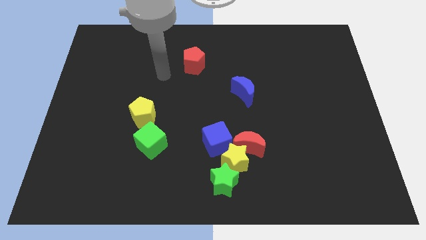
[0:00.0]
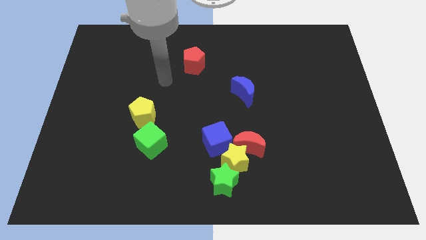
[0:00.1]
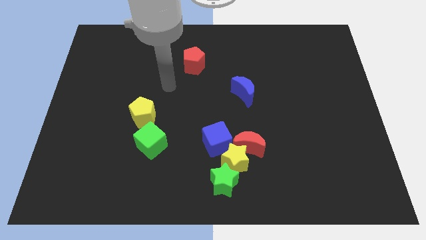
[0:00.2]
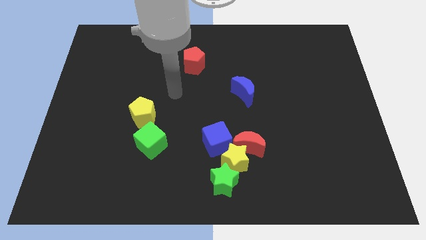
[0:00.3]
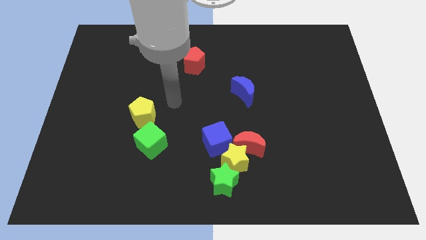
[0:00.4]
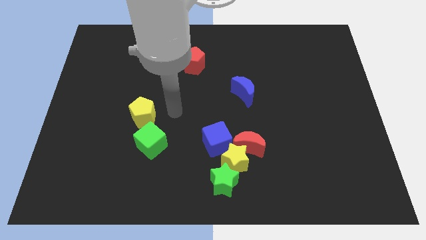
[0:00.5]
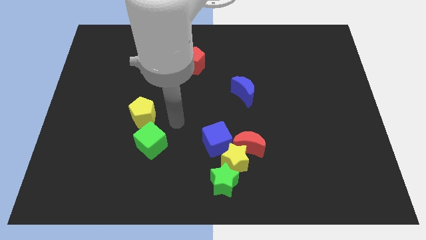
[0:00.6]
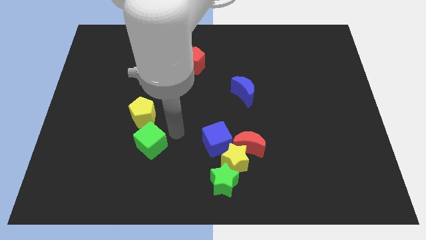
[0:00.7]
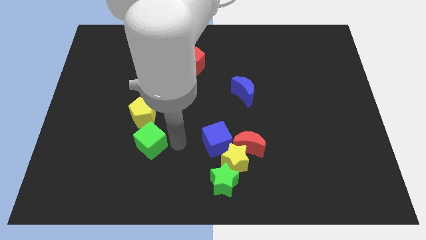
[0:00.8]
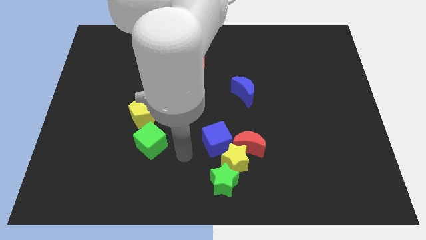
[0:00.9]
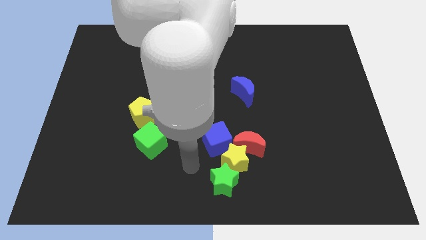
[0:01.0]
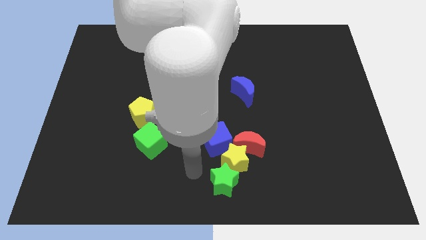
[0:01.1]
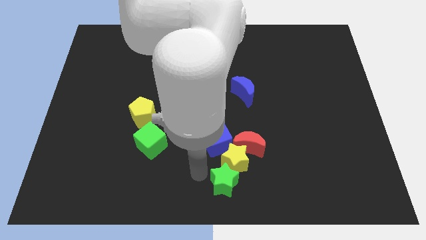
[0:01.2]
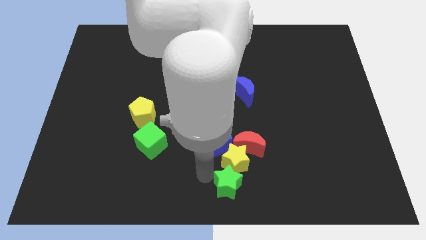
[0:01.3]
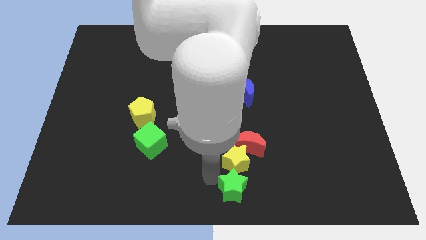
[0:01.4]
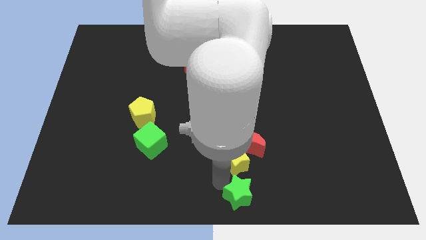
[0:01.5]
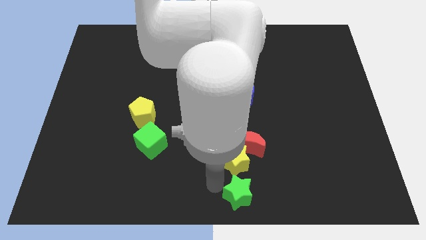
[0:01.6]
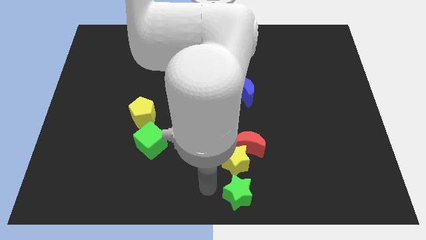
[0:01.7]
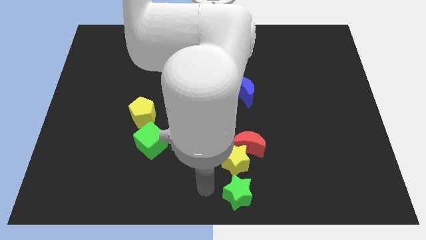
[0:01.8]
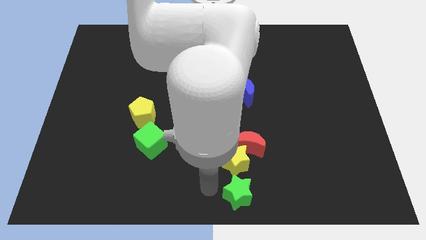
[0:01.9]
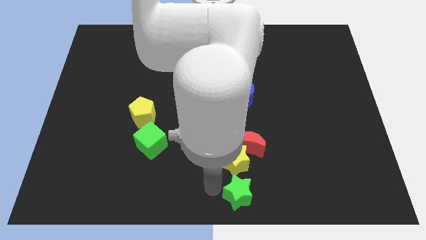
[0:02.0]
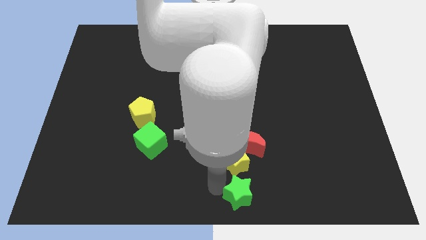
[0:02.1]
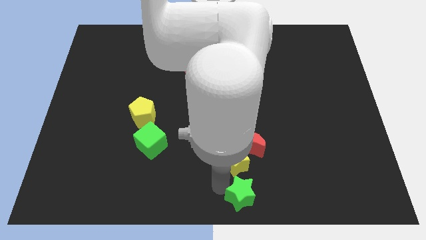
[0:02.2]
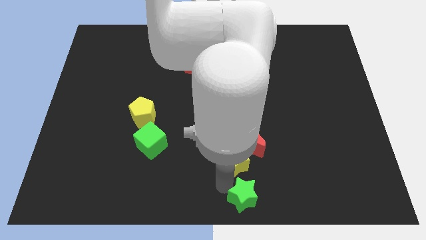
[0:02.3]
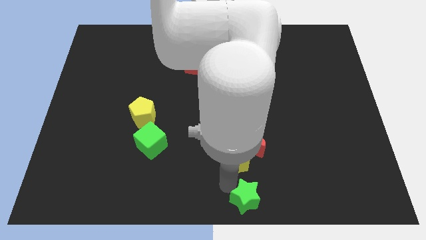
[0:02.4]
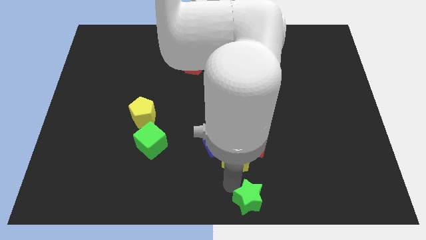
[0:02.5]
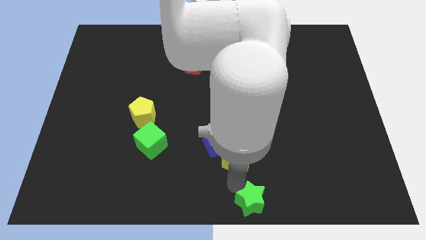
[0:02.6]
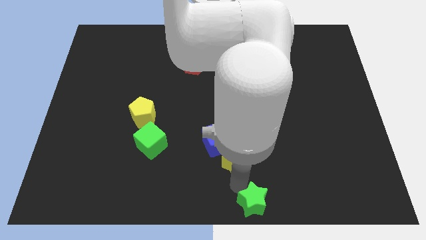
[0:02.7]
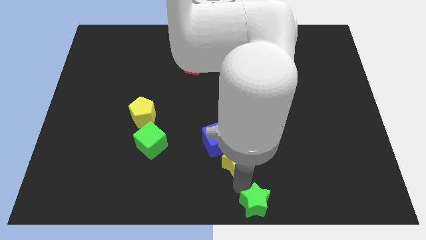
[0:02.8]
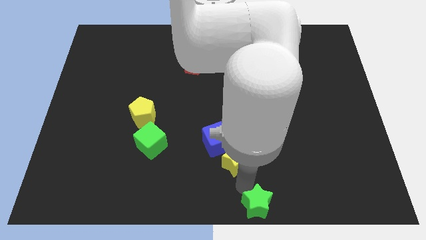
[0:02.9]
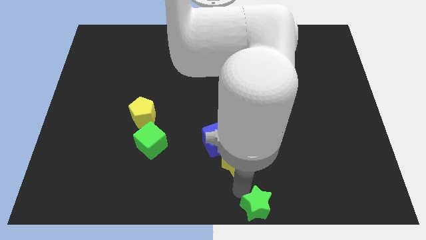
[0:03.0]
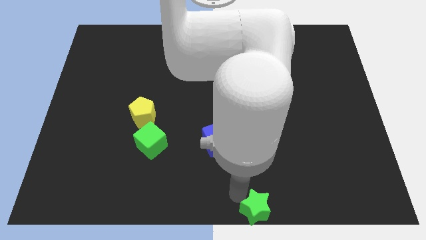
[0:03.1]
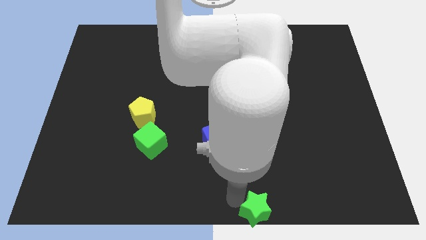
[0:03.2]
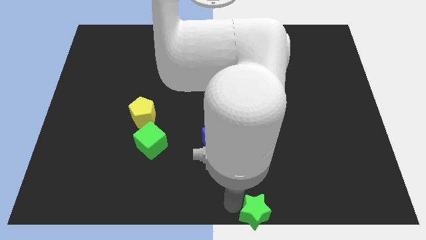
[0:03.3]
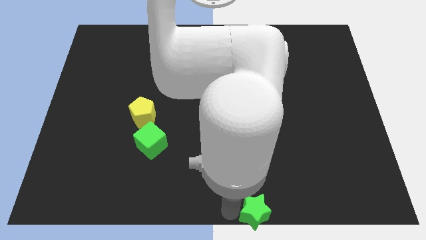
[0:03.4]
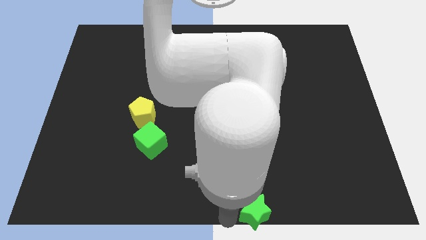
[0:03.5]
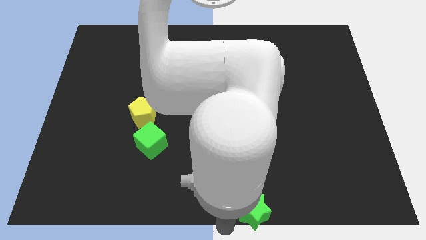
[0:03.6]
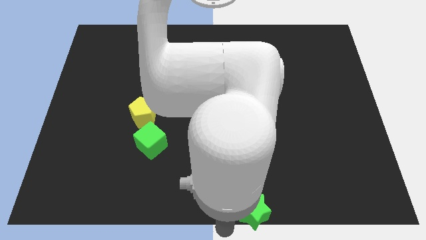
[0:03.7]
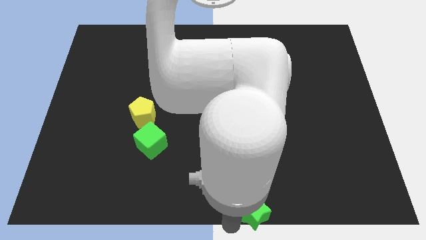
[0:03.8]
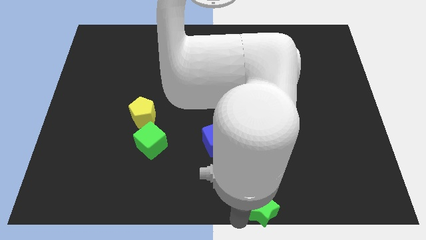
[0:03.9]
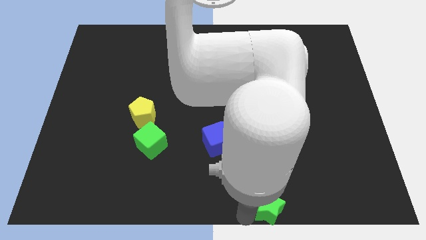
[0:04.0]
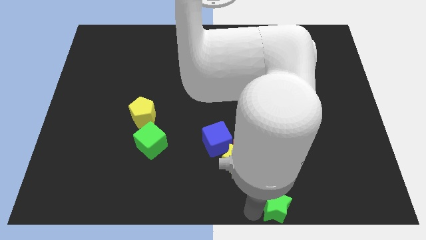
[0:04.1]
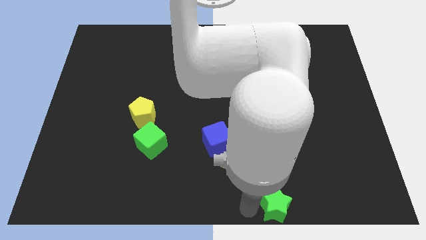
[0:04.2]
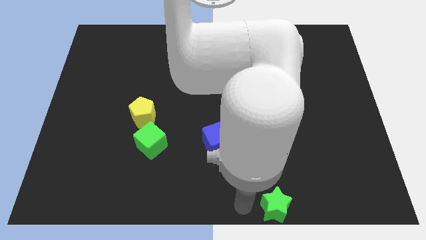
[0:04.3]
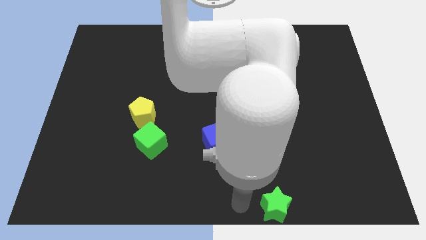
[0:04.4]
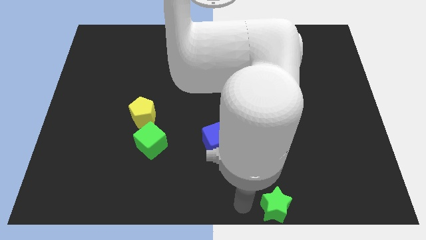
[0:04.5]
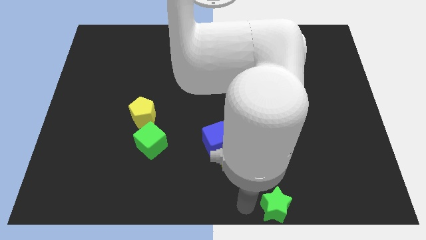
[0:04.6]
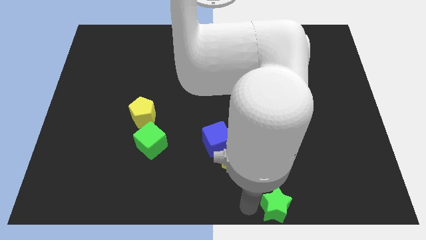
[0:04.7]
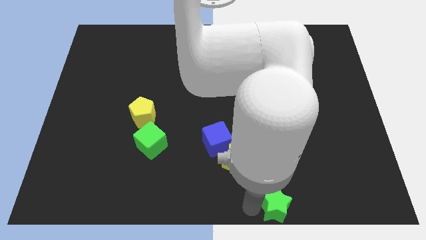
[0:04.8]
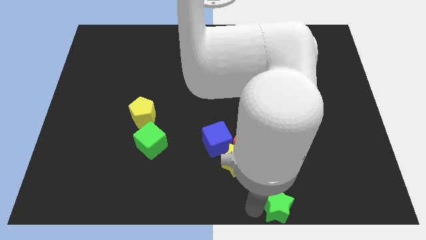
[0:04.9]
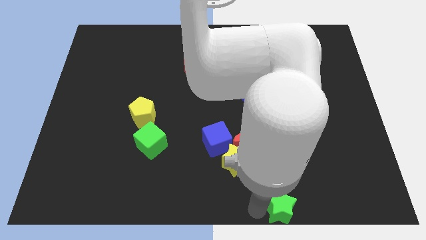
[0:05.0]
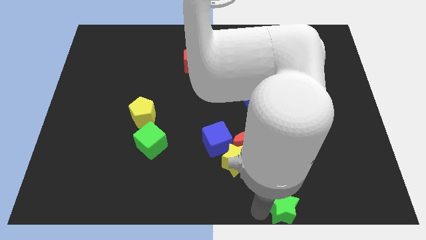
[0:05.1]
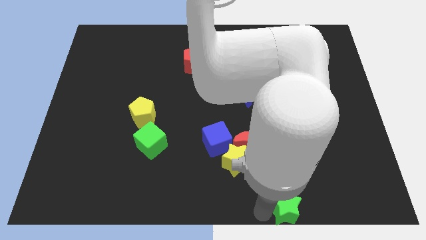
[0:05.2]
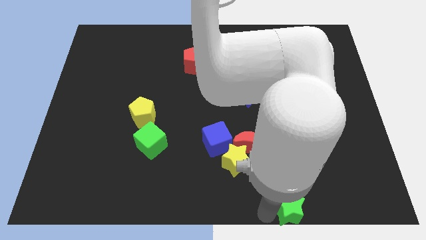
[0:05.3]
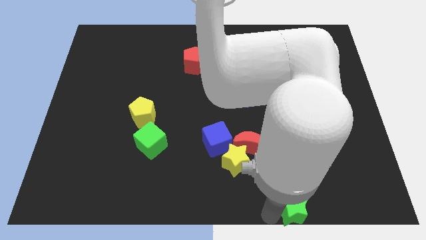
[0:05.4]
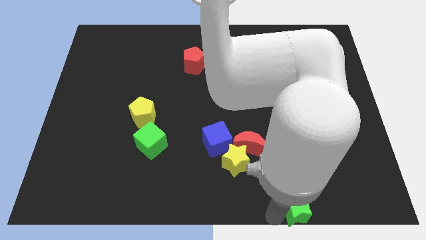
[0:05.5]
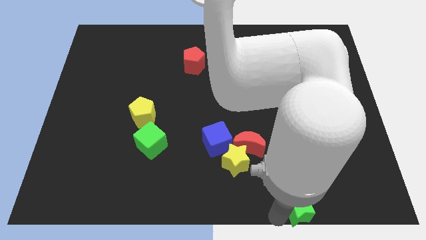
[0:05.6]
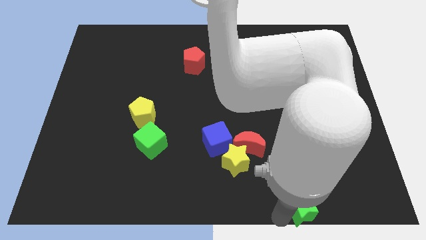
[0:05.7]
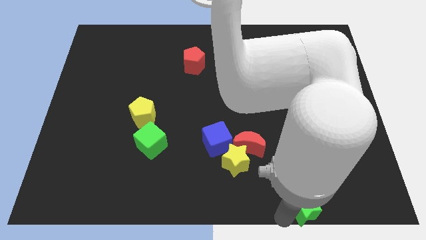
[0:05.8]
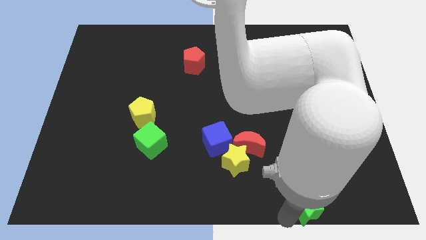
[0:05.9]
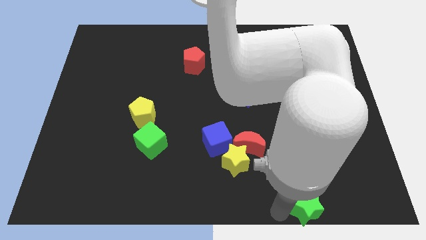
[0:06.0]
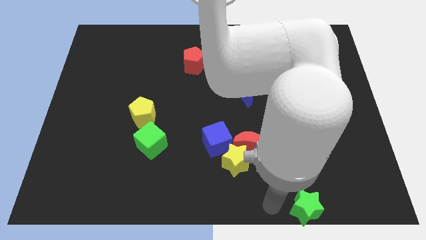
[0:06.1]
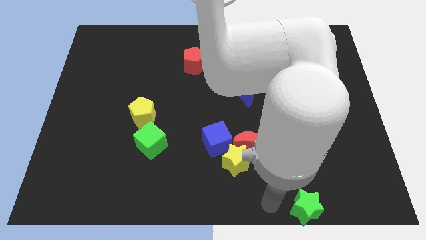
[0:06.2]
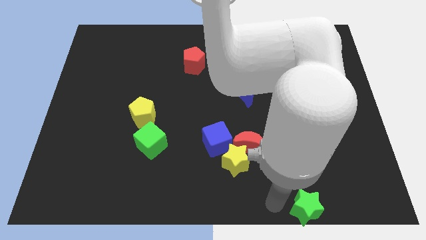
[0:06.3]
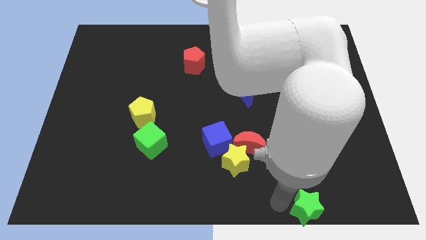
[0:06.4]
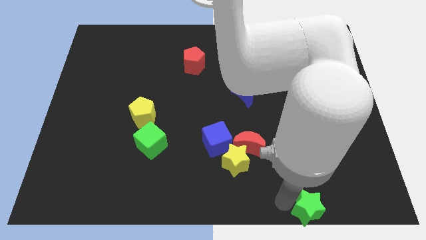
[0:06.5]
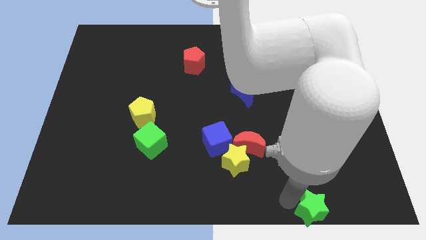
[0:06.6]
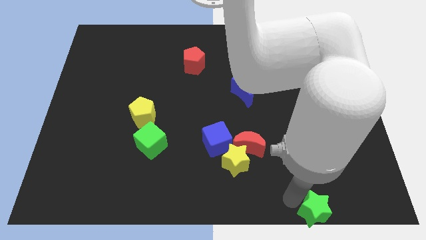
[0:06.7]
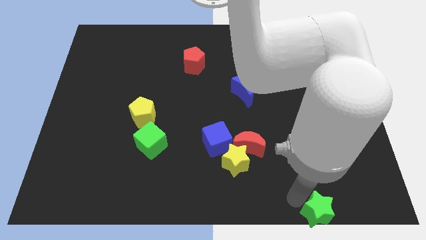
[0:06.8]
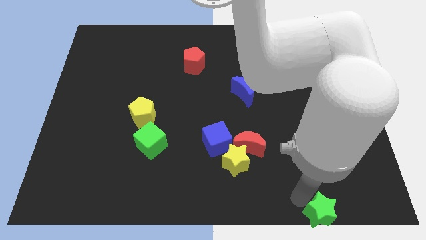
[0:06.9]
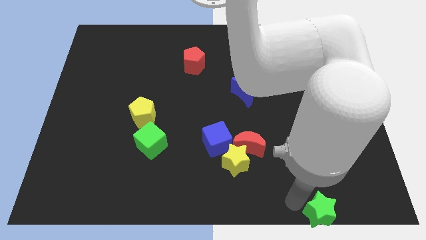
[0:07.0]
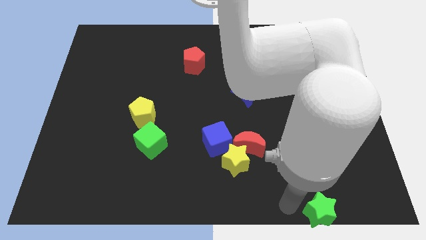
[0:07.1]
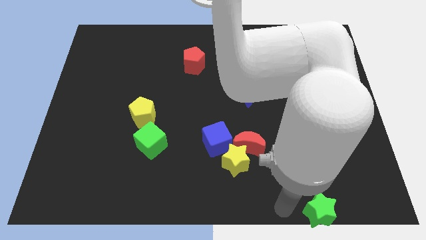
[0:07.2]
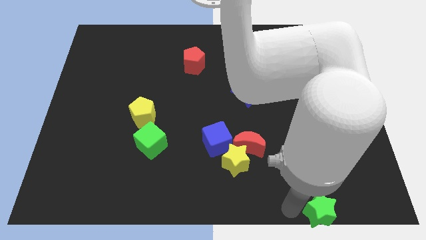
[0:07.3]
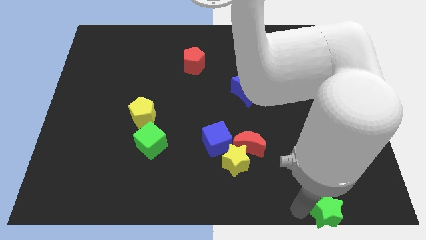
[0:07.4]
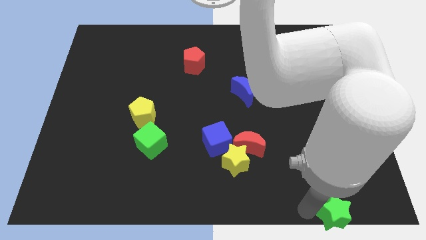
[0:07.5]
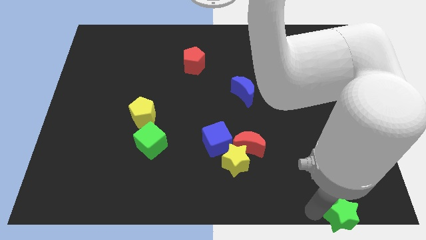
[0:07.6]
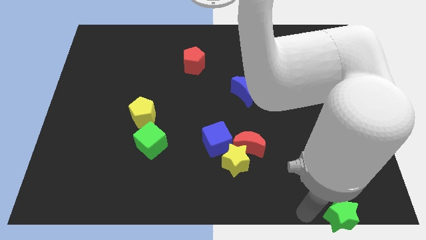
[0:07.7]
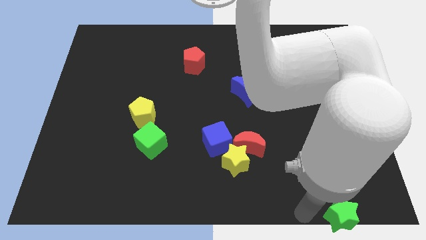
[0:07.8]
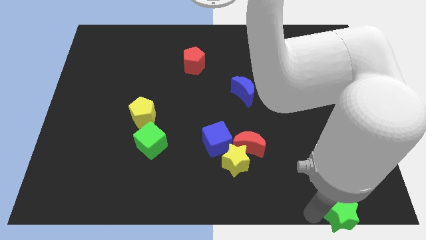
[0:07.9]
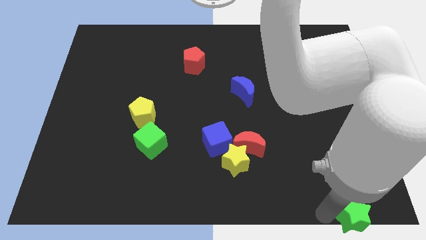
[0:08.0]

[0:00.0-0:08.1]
slide the green star to the lower right corner
